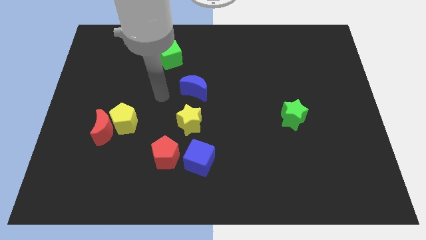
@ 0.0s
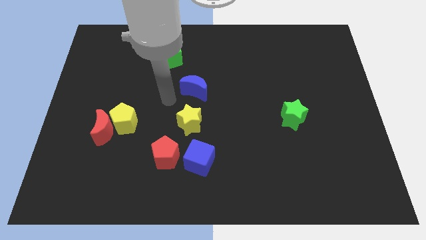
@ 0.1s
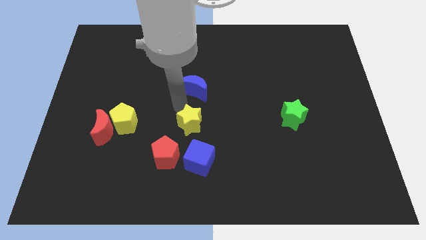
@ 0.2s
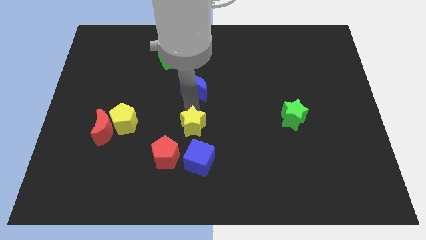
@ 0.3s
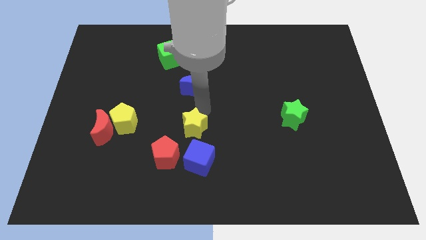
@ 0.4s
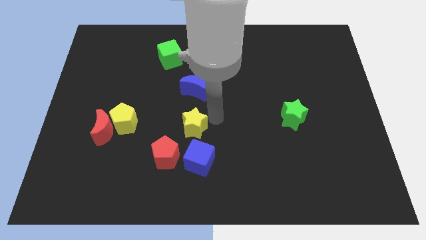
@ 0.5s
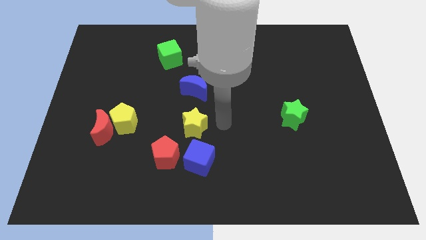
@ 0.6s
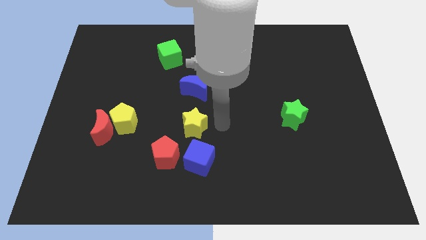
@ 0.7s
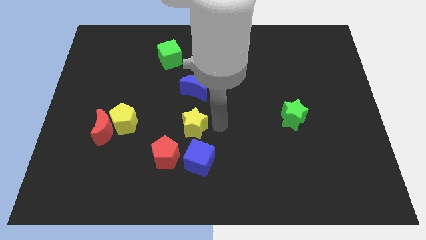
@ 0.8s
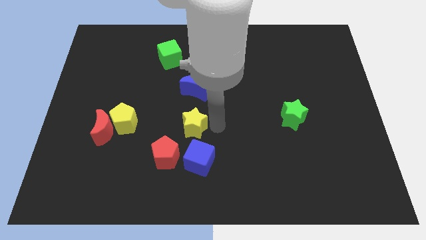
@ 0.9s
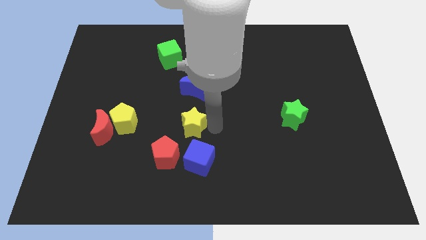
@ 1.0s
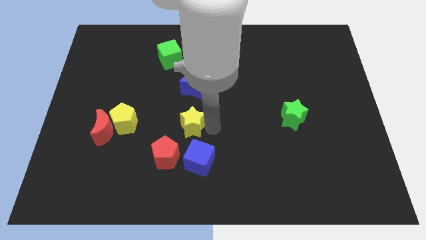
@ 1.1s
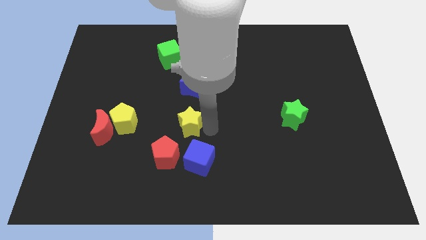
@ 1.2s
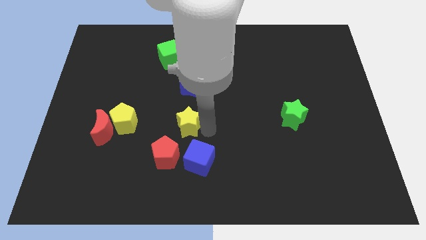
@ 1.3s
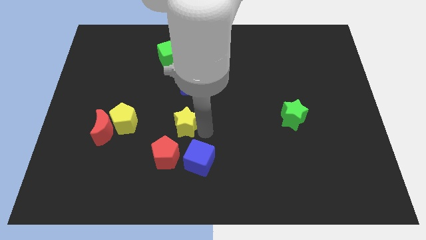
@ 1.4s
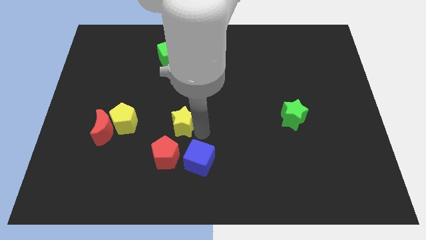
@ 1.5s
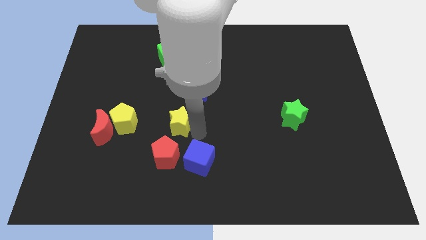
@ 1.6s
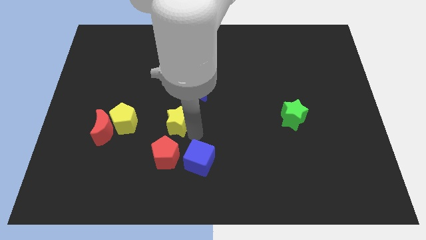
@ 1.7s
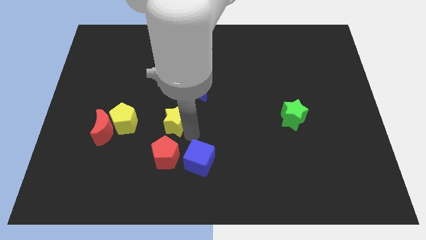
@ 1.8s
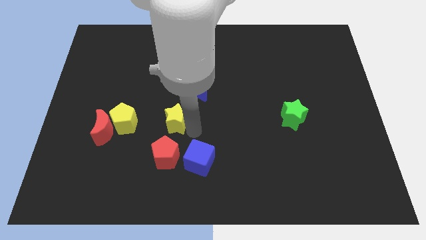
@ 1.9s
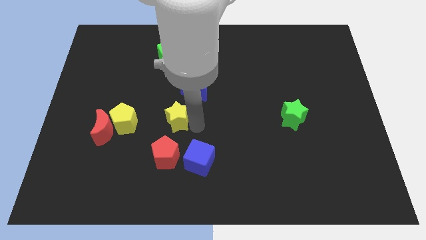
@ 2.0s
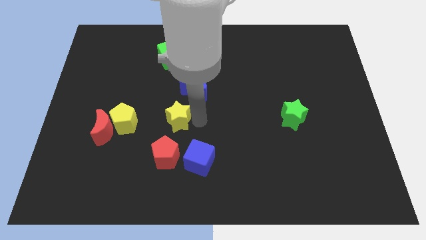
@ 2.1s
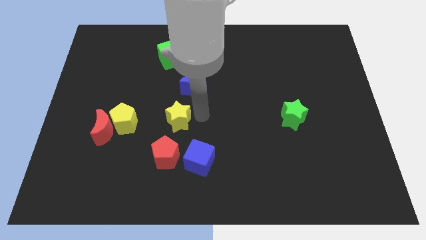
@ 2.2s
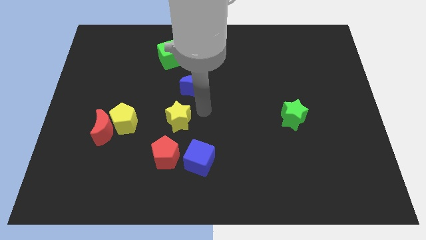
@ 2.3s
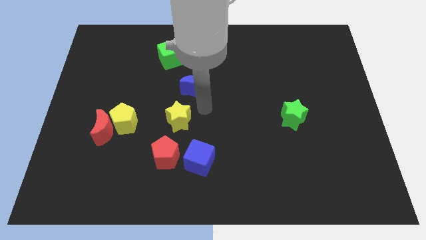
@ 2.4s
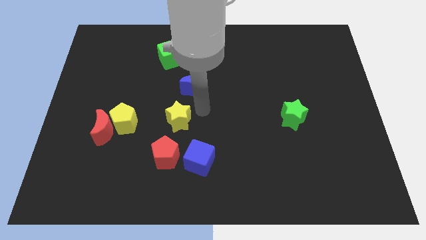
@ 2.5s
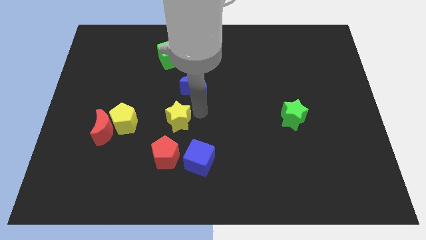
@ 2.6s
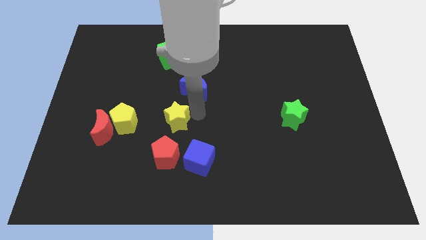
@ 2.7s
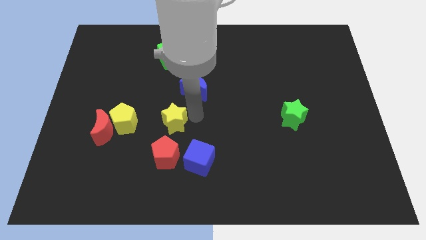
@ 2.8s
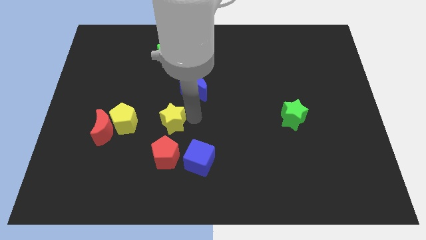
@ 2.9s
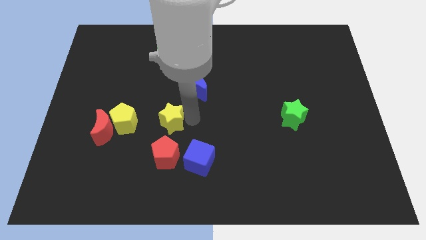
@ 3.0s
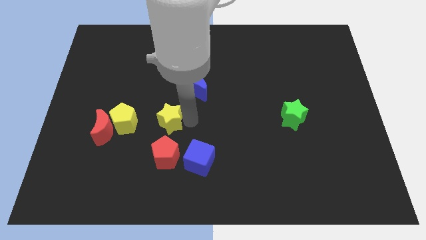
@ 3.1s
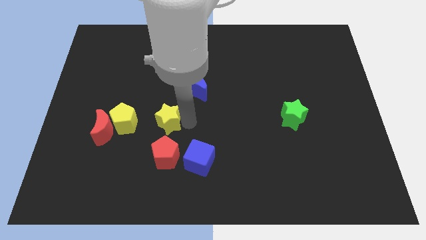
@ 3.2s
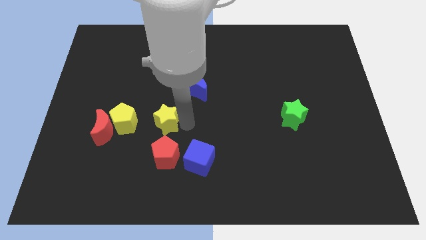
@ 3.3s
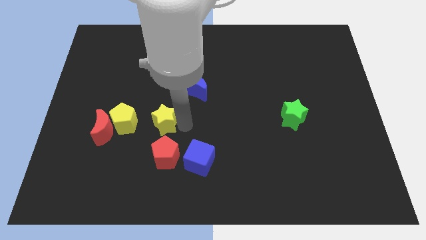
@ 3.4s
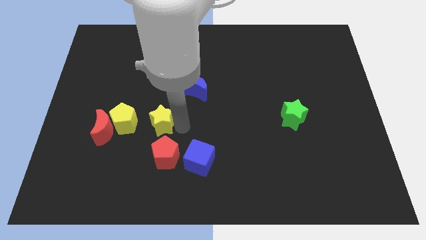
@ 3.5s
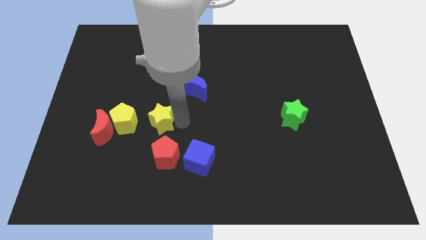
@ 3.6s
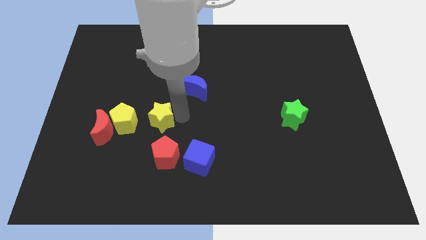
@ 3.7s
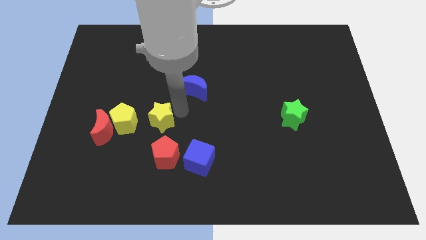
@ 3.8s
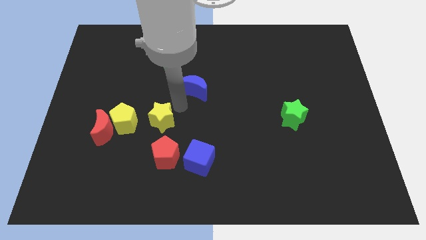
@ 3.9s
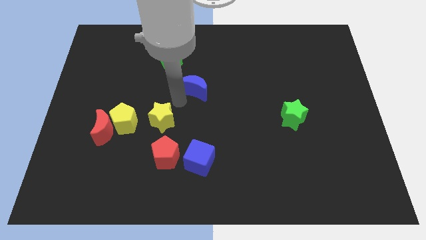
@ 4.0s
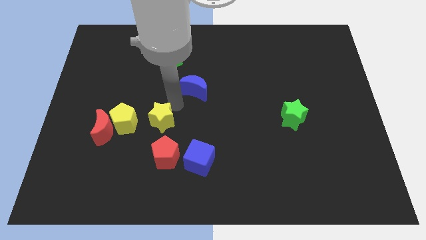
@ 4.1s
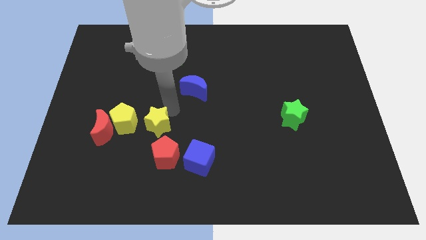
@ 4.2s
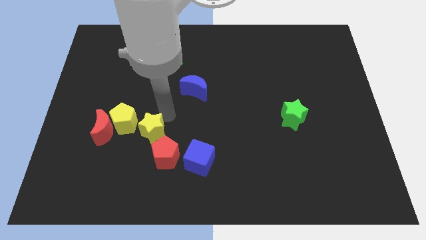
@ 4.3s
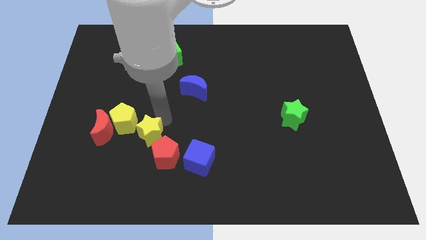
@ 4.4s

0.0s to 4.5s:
slightly move the yellow star downwards and to the left diagonally

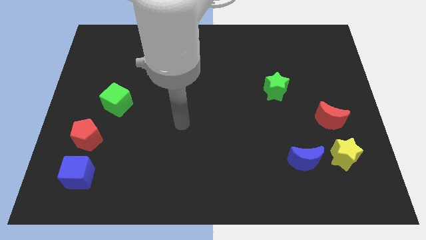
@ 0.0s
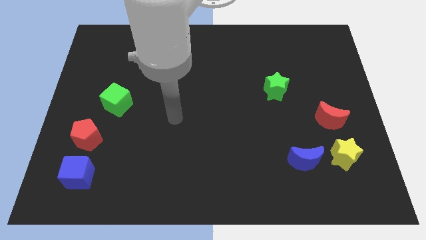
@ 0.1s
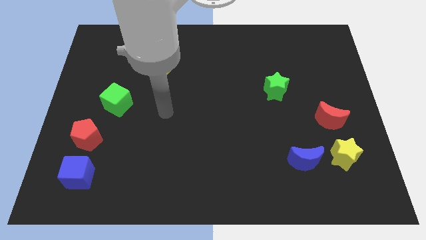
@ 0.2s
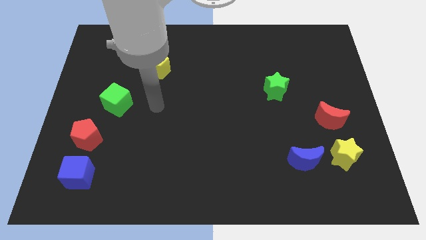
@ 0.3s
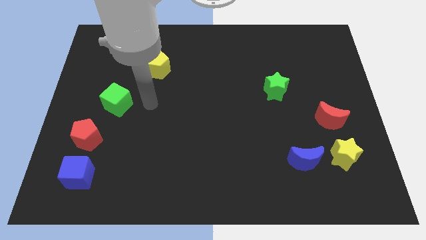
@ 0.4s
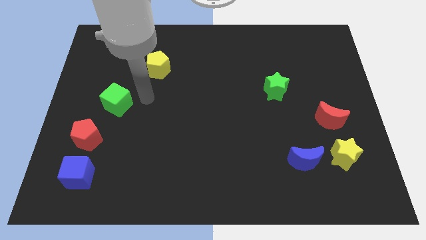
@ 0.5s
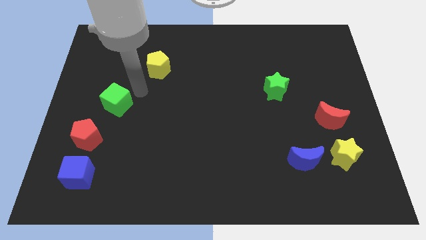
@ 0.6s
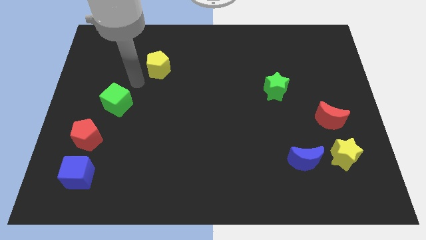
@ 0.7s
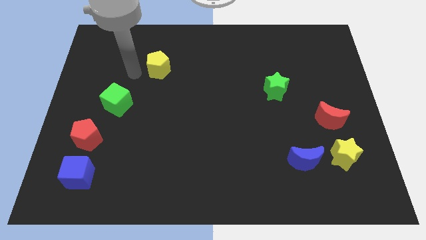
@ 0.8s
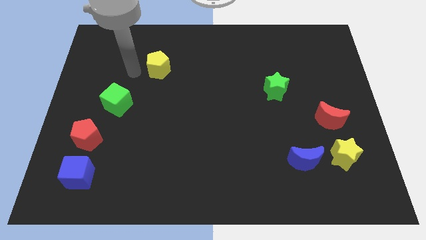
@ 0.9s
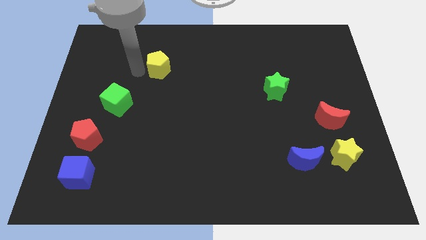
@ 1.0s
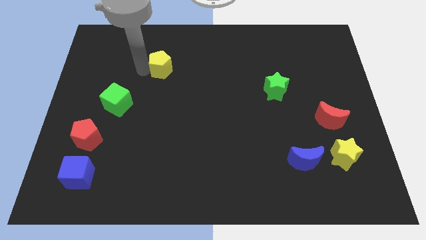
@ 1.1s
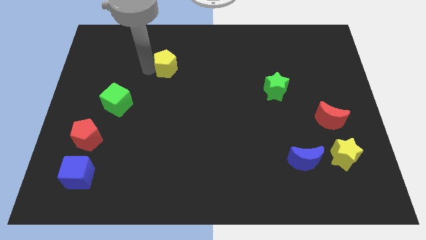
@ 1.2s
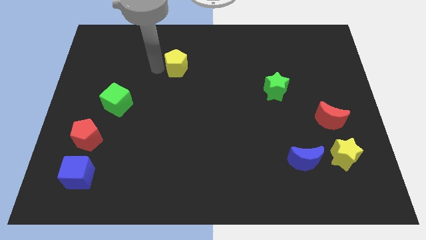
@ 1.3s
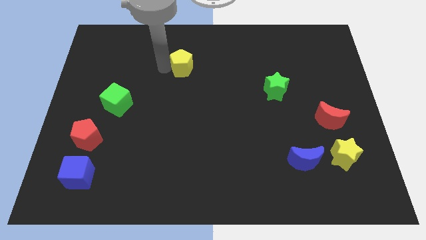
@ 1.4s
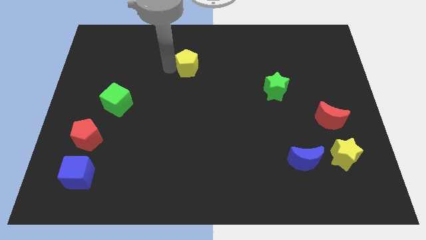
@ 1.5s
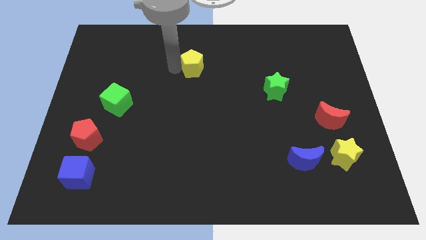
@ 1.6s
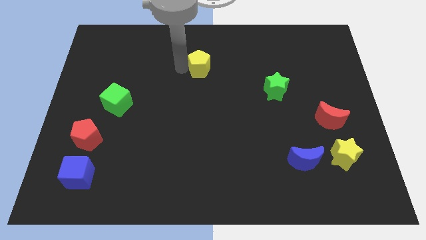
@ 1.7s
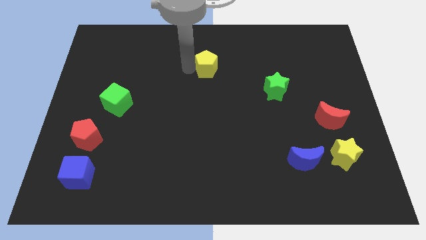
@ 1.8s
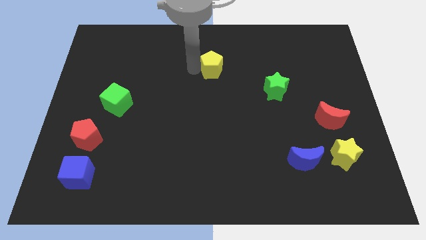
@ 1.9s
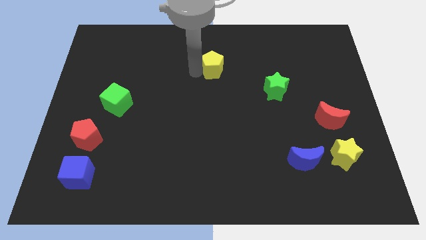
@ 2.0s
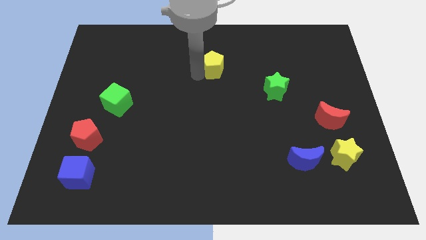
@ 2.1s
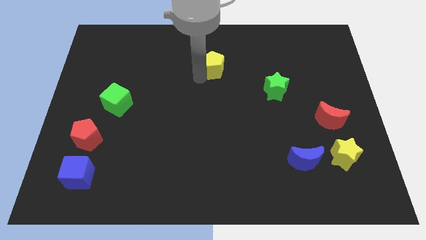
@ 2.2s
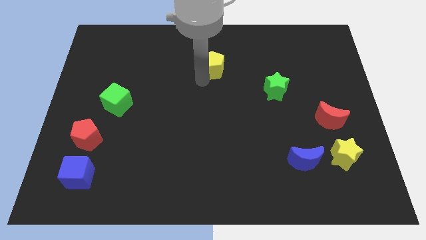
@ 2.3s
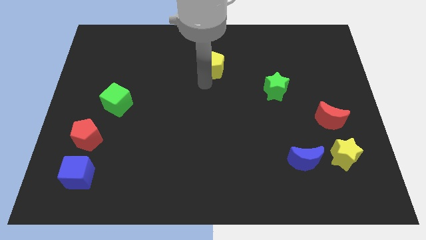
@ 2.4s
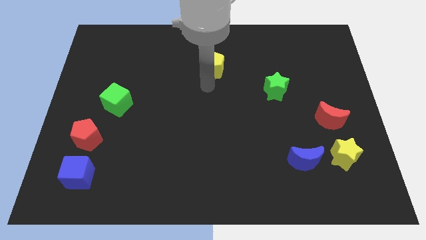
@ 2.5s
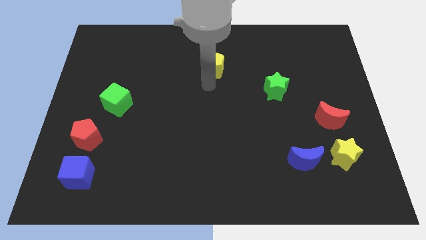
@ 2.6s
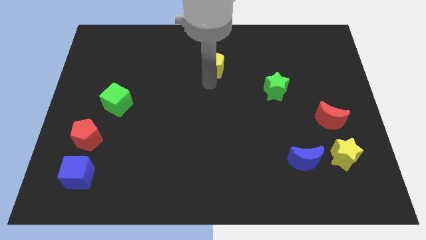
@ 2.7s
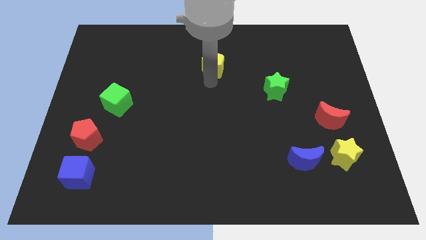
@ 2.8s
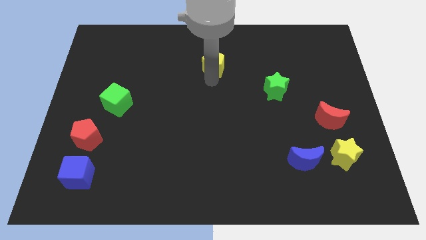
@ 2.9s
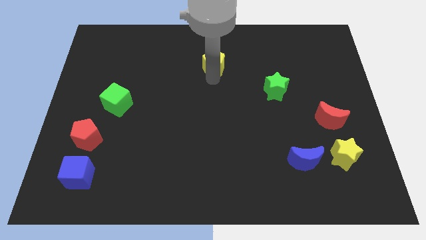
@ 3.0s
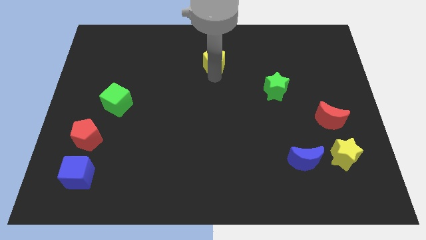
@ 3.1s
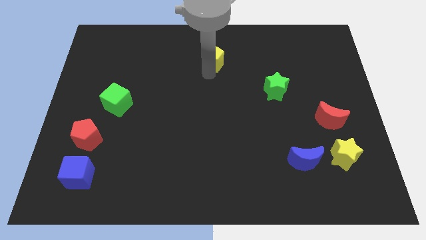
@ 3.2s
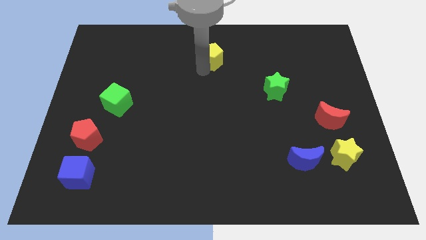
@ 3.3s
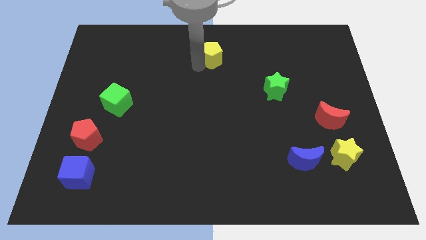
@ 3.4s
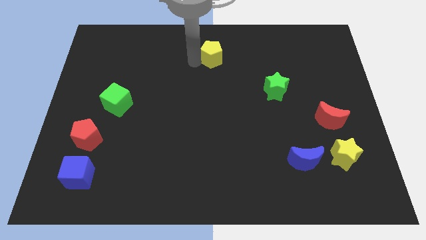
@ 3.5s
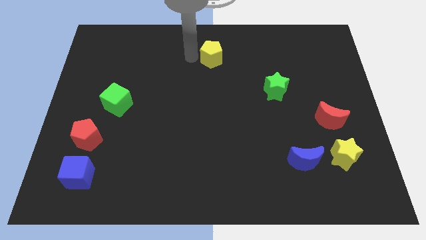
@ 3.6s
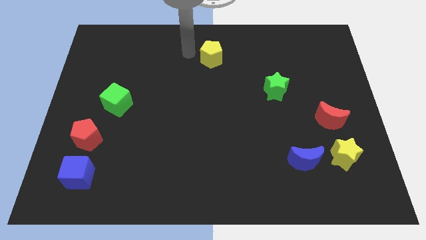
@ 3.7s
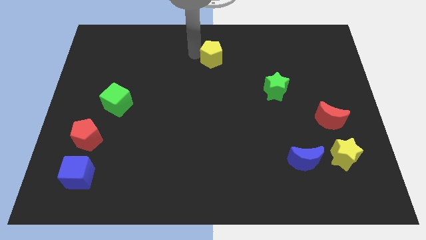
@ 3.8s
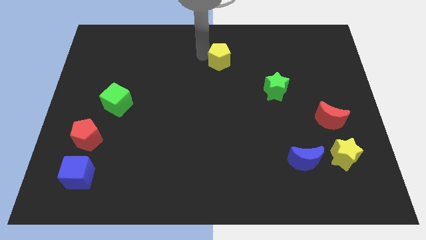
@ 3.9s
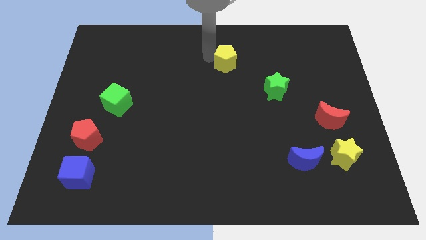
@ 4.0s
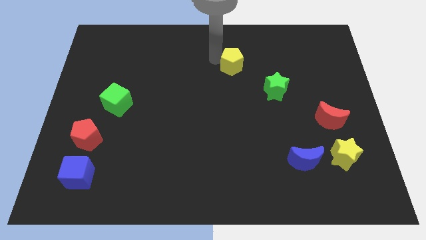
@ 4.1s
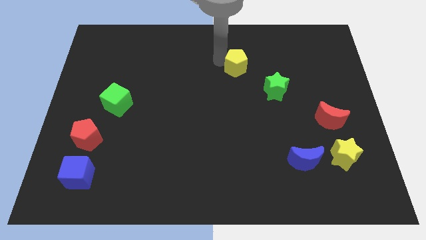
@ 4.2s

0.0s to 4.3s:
push the yellow pentagon to the right
